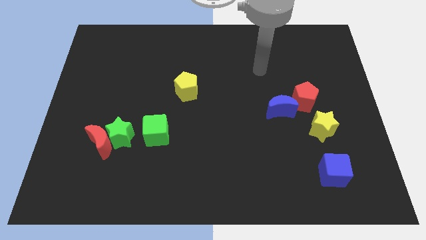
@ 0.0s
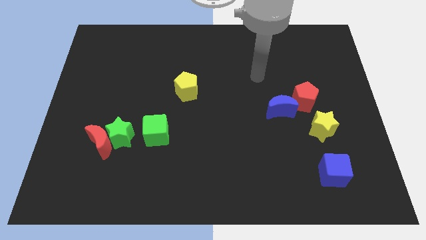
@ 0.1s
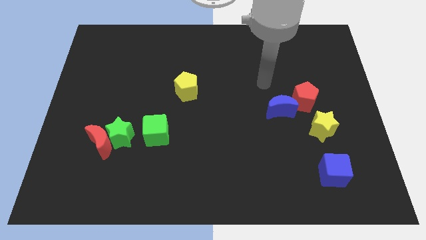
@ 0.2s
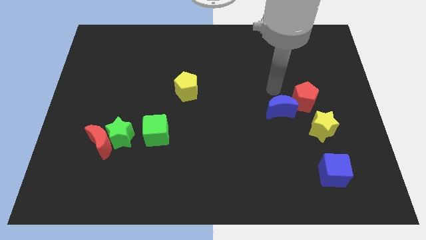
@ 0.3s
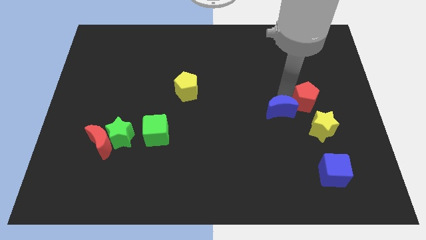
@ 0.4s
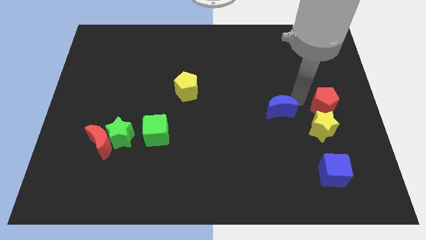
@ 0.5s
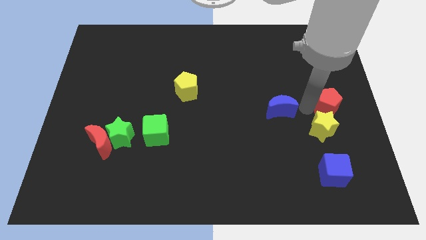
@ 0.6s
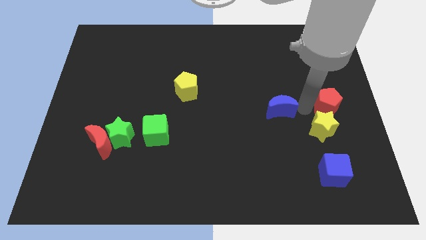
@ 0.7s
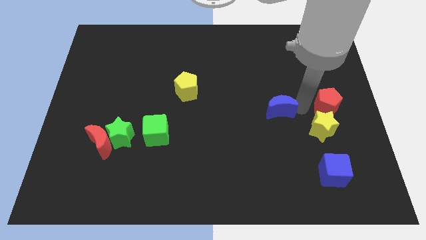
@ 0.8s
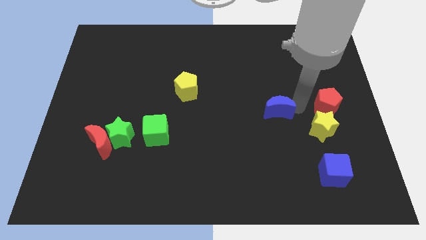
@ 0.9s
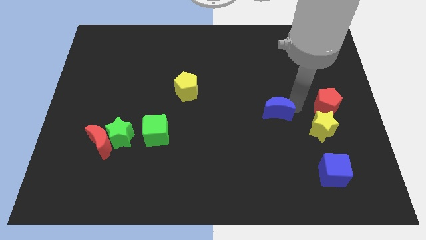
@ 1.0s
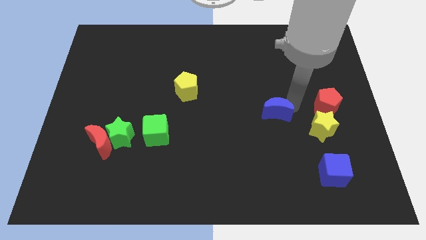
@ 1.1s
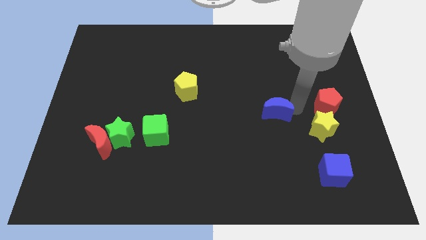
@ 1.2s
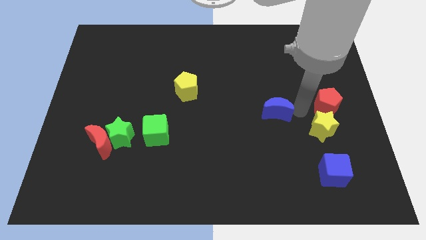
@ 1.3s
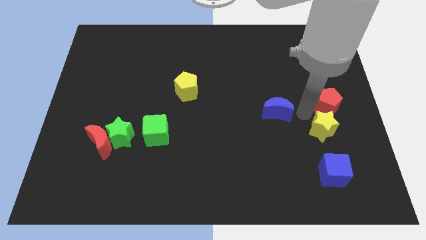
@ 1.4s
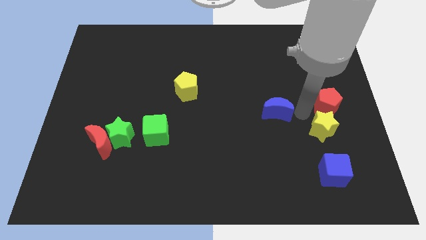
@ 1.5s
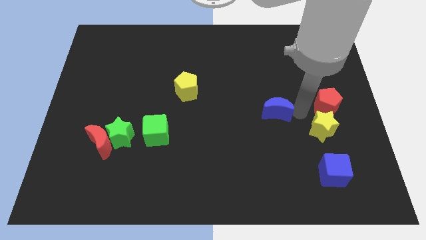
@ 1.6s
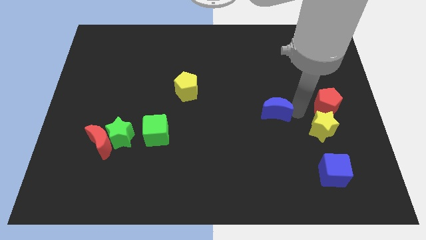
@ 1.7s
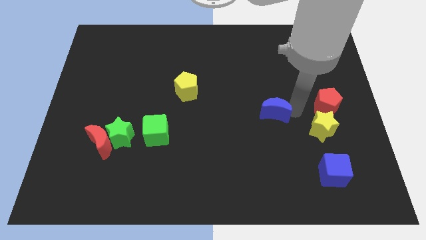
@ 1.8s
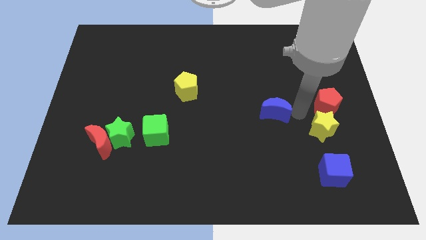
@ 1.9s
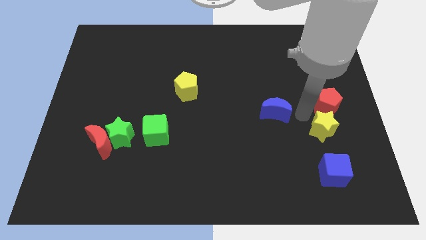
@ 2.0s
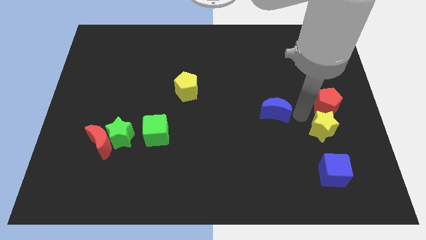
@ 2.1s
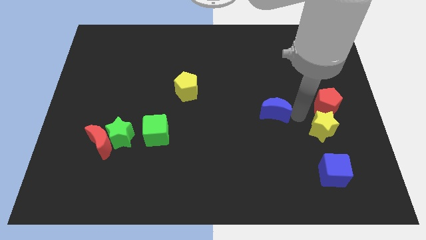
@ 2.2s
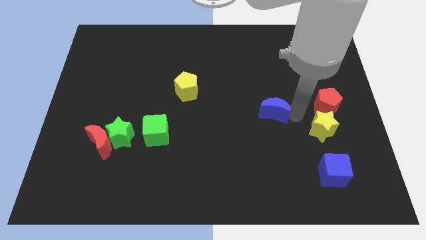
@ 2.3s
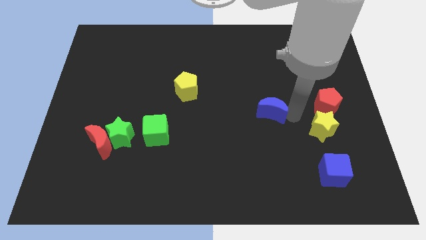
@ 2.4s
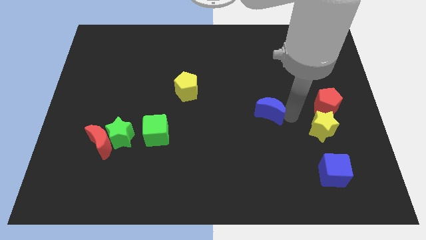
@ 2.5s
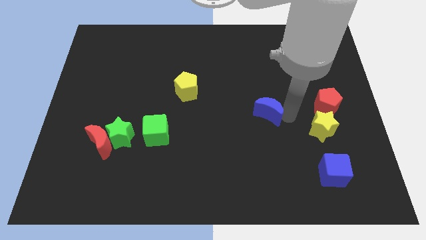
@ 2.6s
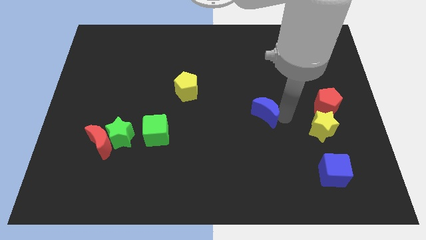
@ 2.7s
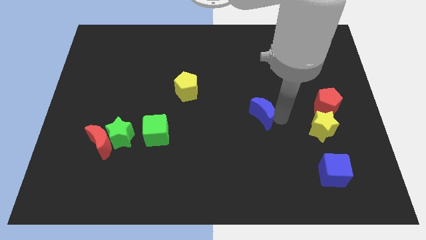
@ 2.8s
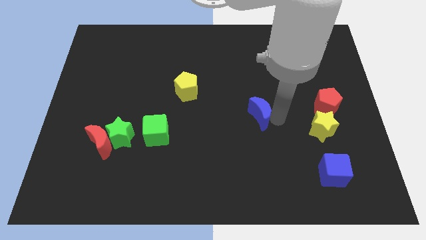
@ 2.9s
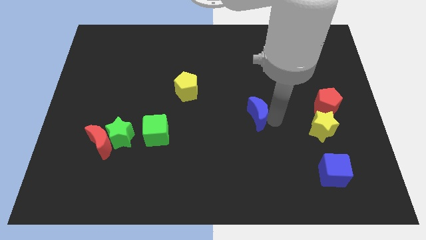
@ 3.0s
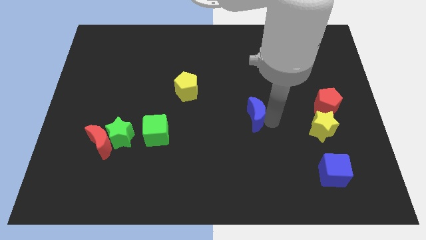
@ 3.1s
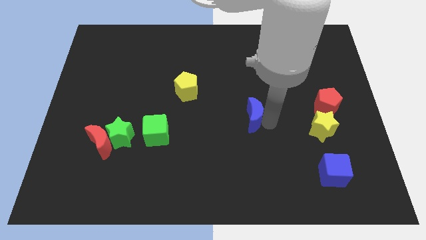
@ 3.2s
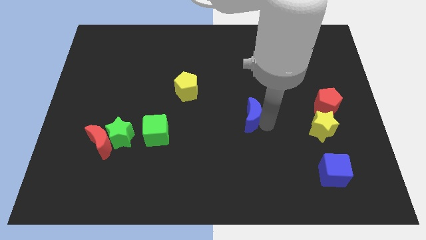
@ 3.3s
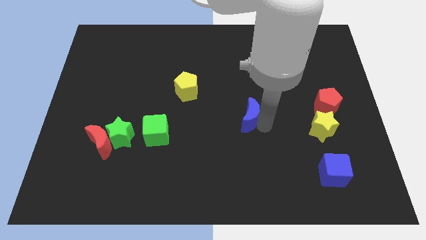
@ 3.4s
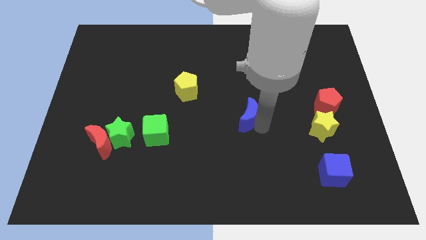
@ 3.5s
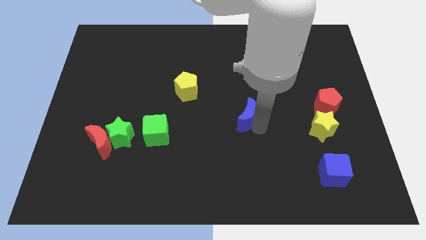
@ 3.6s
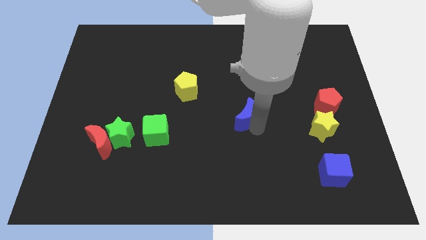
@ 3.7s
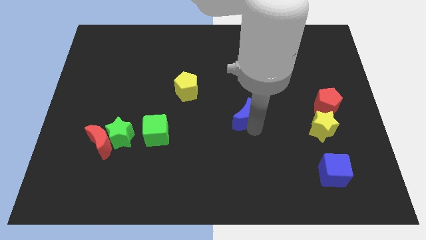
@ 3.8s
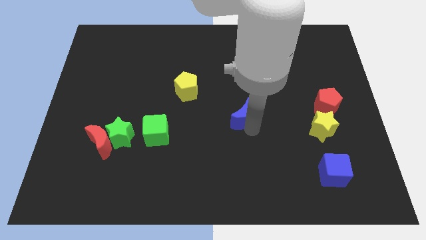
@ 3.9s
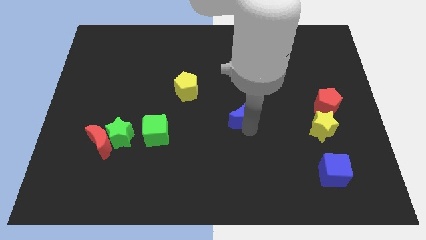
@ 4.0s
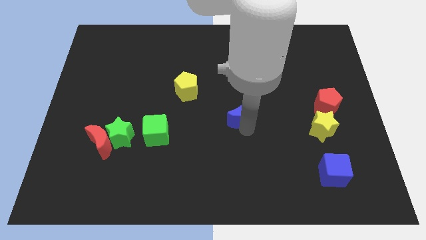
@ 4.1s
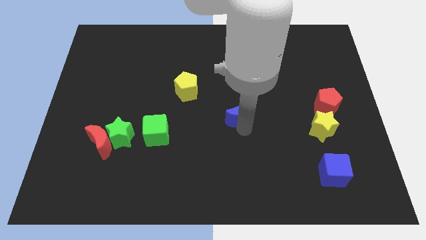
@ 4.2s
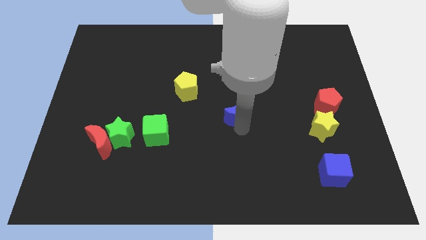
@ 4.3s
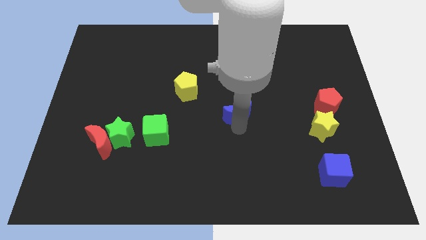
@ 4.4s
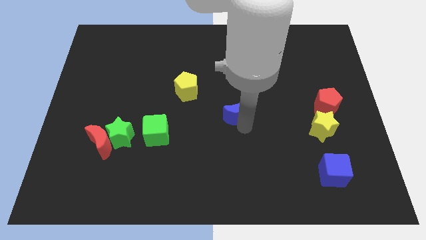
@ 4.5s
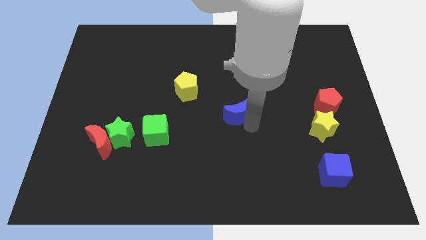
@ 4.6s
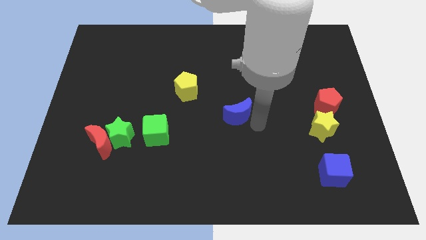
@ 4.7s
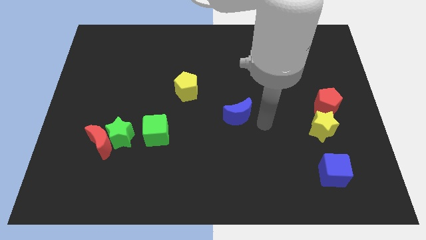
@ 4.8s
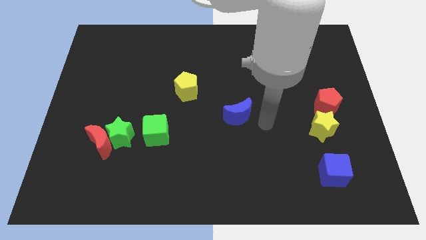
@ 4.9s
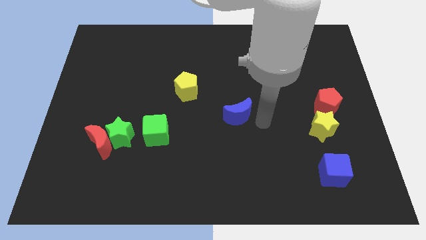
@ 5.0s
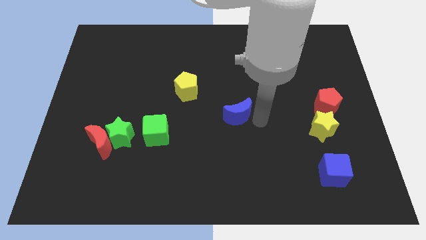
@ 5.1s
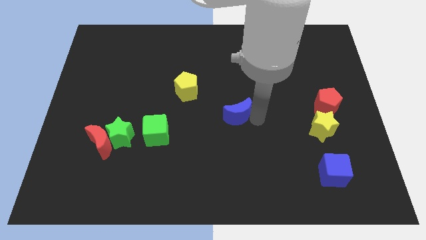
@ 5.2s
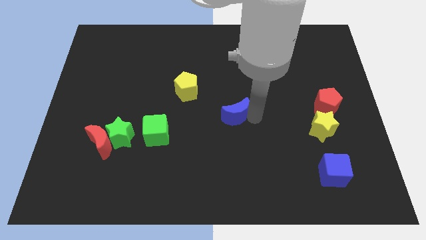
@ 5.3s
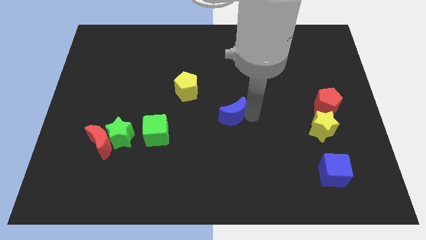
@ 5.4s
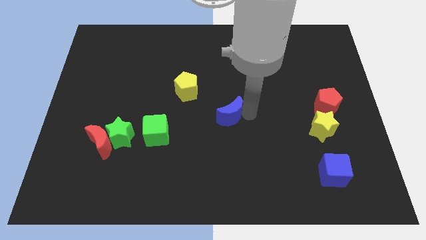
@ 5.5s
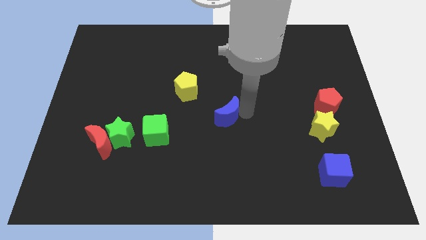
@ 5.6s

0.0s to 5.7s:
slide the blue moon to the bottom right side of the yellow pentagon

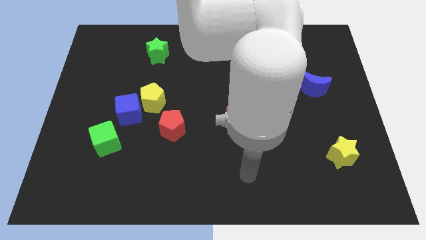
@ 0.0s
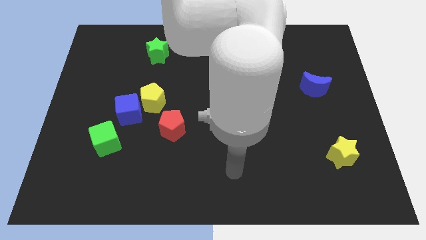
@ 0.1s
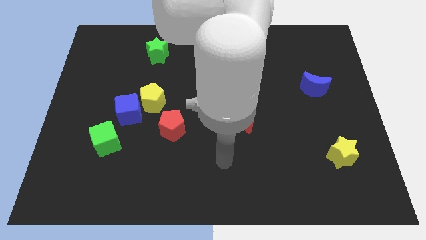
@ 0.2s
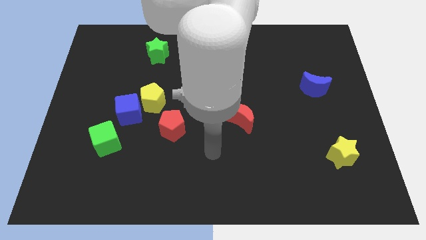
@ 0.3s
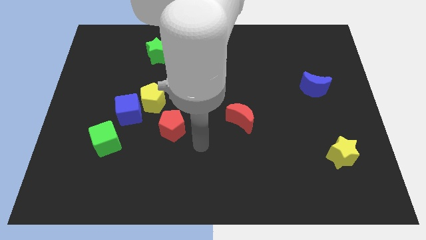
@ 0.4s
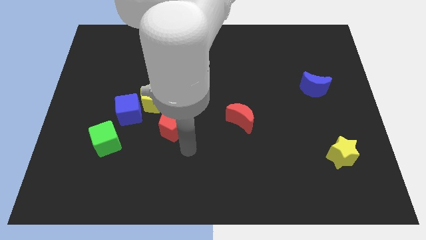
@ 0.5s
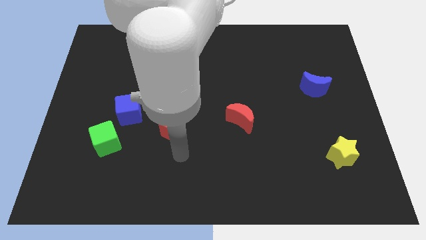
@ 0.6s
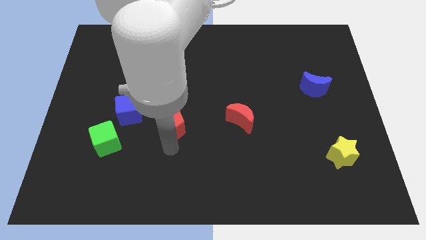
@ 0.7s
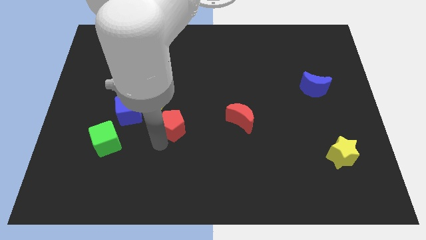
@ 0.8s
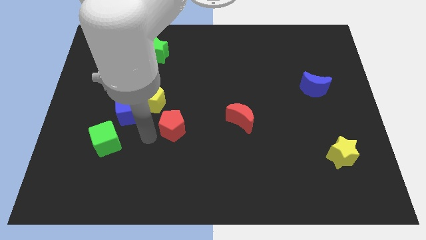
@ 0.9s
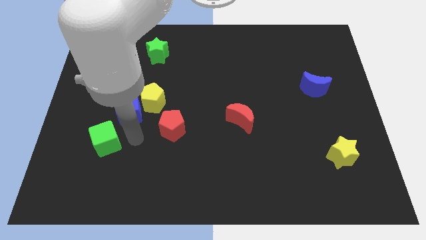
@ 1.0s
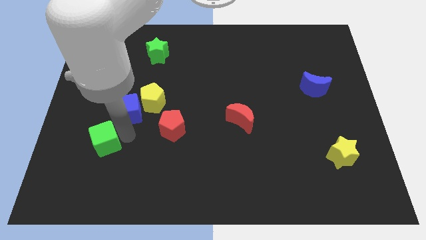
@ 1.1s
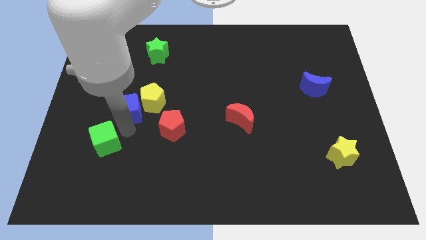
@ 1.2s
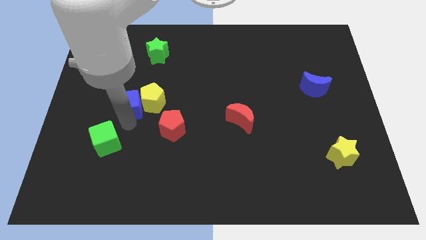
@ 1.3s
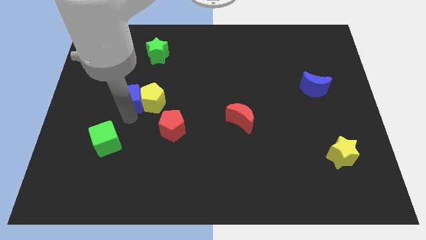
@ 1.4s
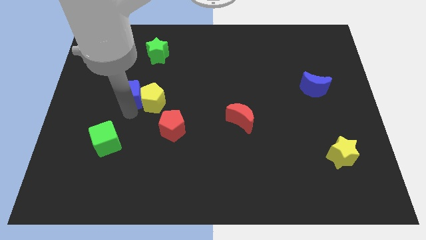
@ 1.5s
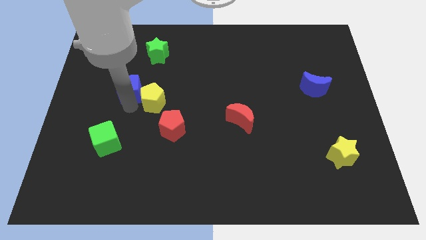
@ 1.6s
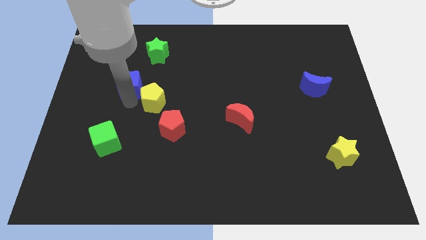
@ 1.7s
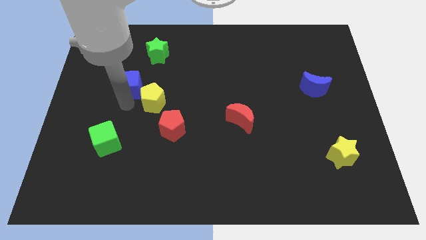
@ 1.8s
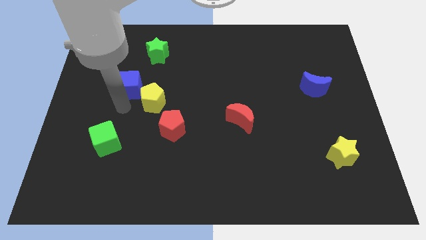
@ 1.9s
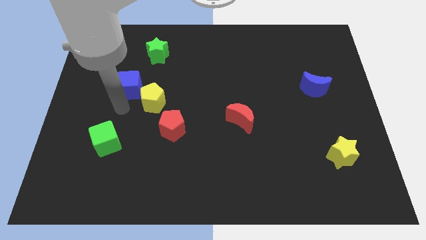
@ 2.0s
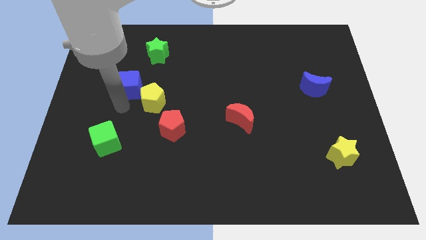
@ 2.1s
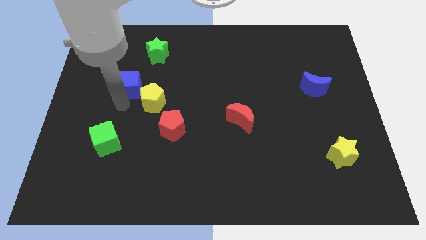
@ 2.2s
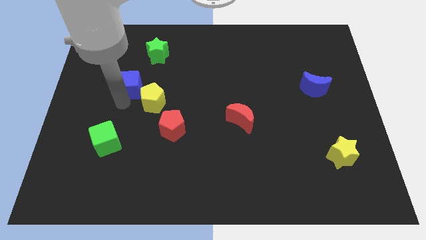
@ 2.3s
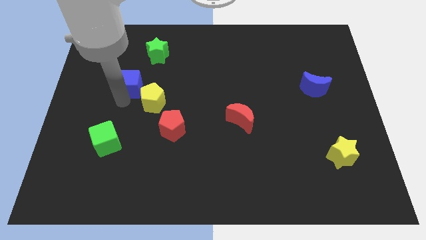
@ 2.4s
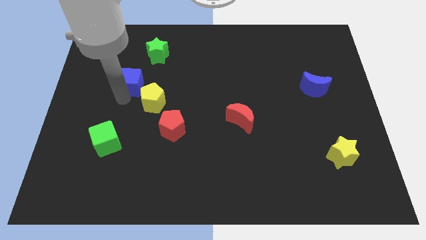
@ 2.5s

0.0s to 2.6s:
move the blue cube to the bottom left side of the green star
